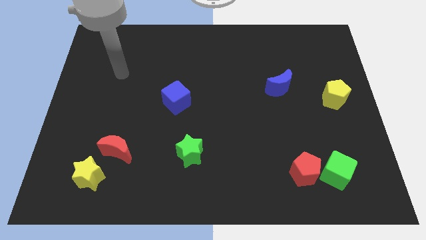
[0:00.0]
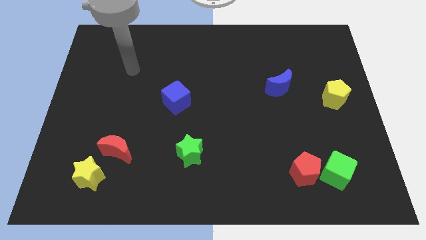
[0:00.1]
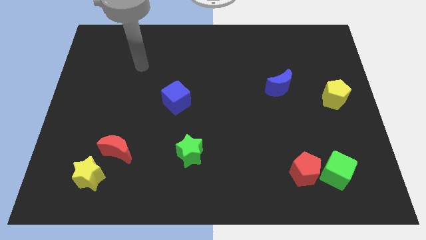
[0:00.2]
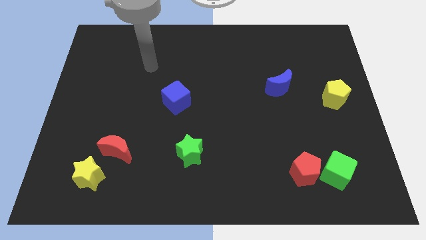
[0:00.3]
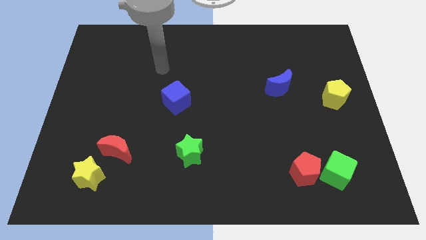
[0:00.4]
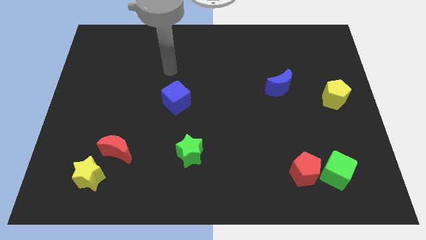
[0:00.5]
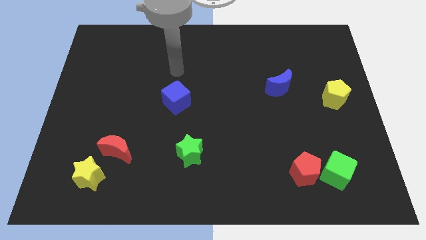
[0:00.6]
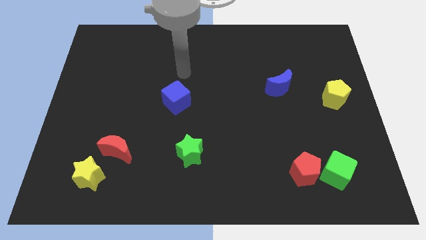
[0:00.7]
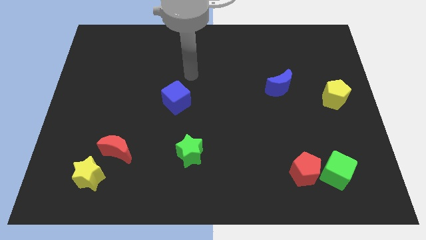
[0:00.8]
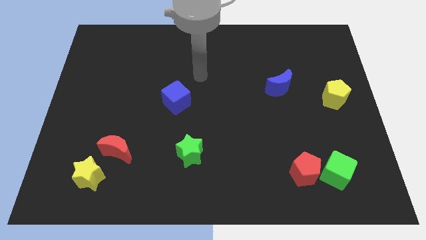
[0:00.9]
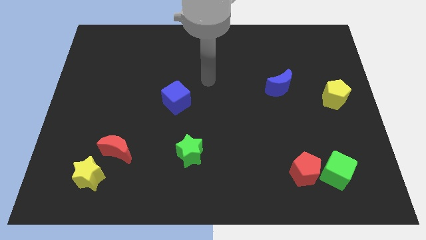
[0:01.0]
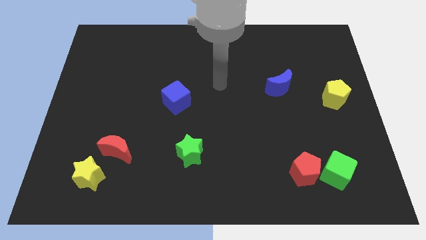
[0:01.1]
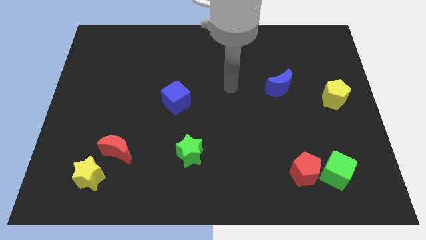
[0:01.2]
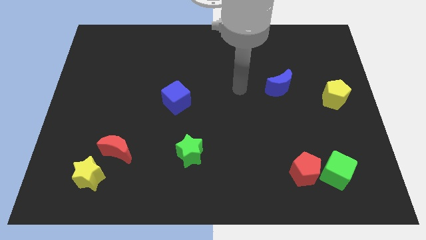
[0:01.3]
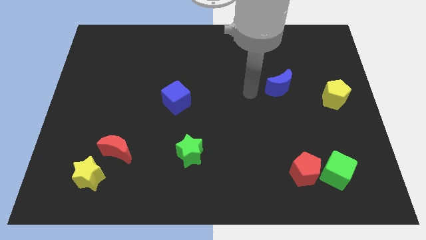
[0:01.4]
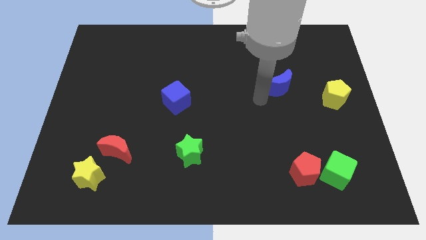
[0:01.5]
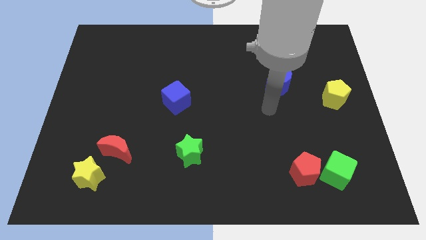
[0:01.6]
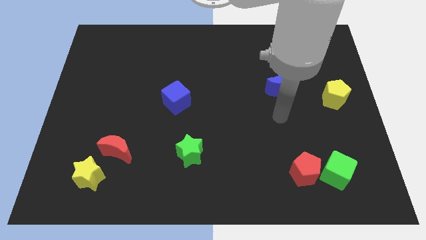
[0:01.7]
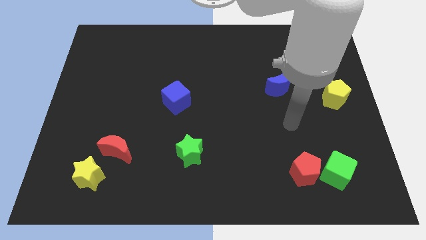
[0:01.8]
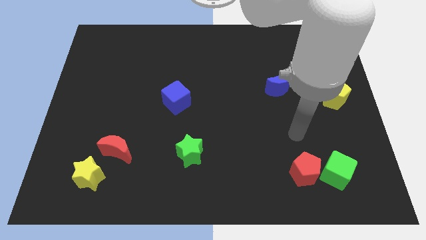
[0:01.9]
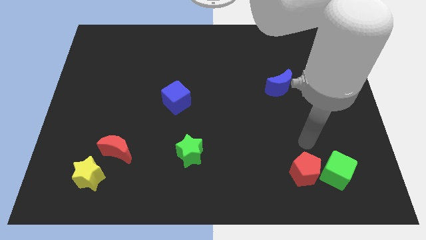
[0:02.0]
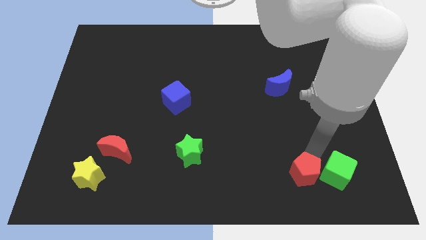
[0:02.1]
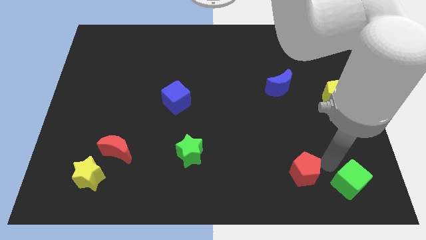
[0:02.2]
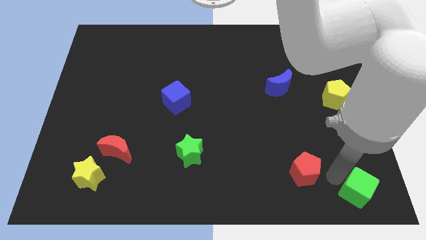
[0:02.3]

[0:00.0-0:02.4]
separate the red pentagon from the green cube

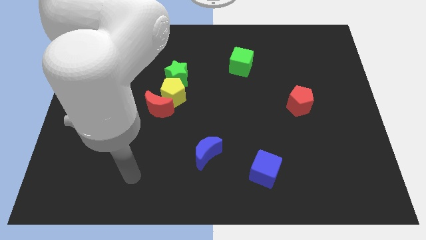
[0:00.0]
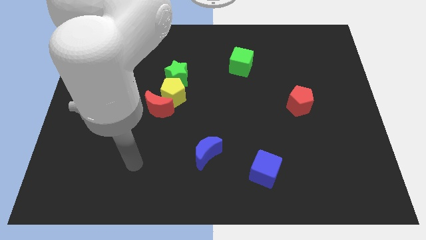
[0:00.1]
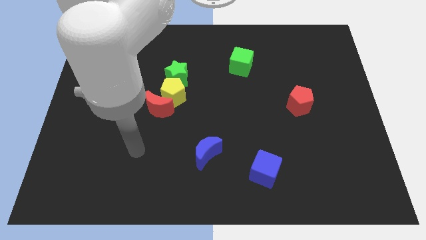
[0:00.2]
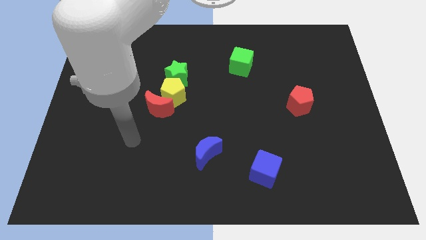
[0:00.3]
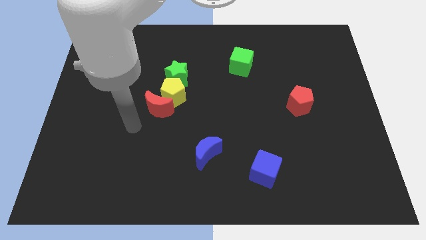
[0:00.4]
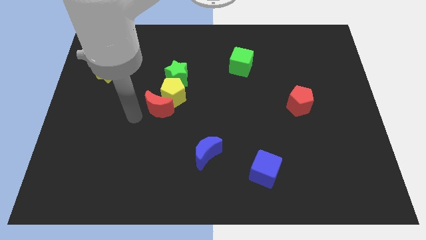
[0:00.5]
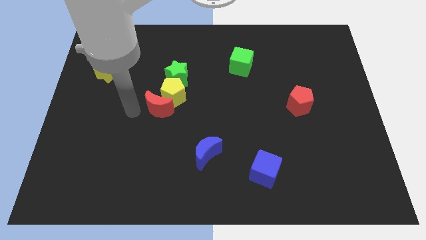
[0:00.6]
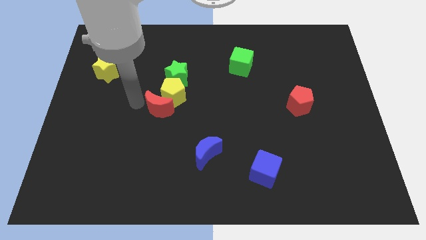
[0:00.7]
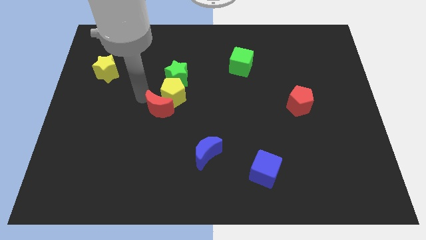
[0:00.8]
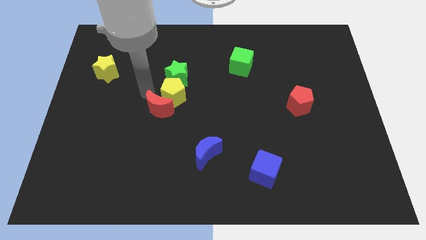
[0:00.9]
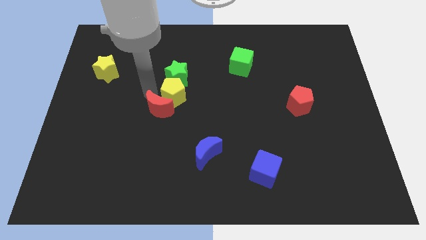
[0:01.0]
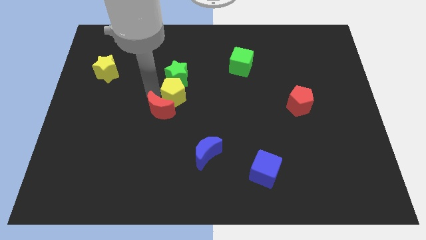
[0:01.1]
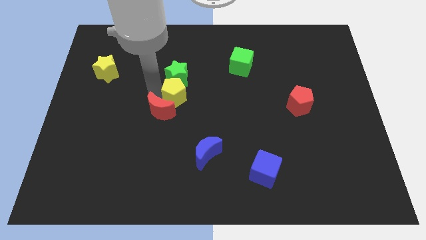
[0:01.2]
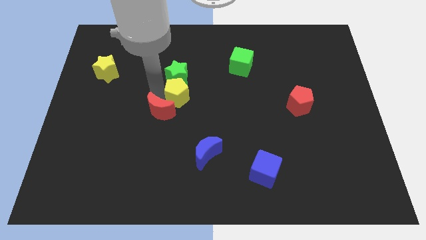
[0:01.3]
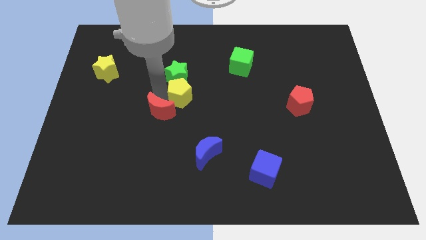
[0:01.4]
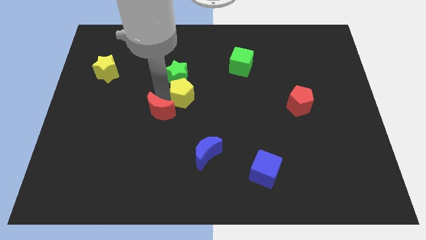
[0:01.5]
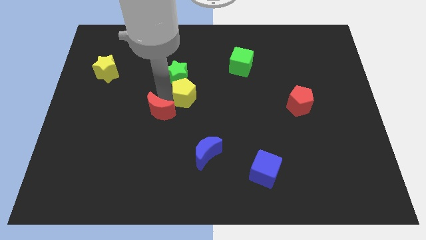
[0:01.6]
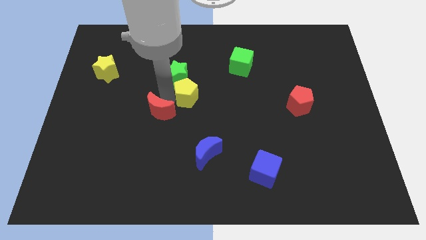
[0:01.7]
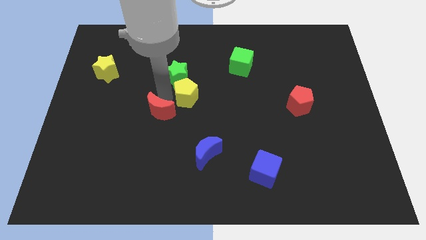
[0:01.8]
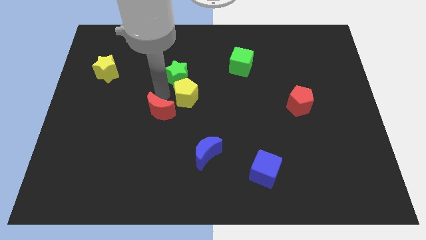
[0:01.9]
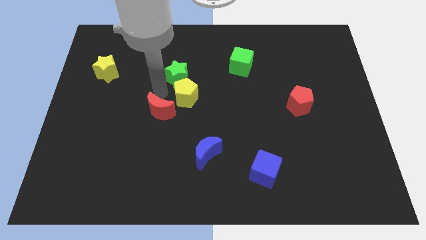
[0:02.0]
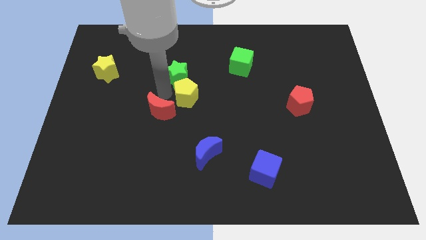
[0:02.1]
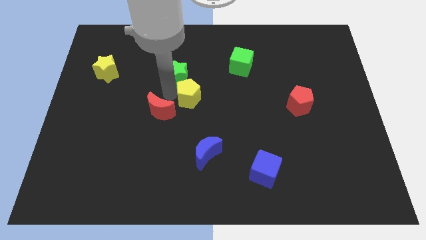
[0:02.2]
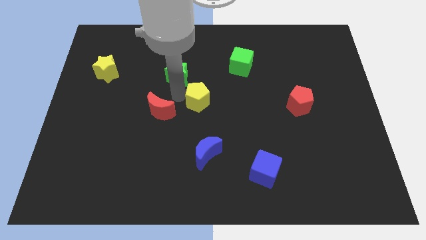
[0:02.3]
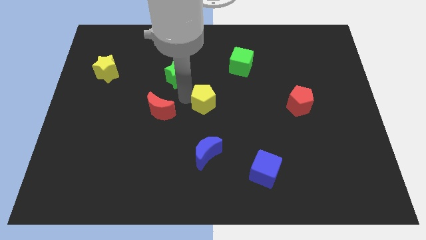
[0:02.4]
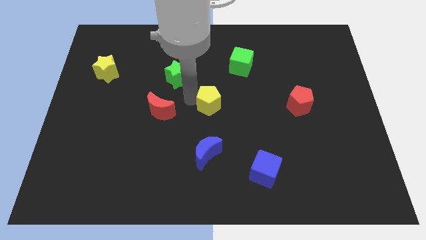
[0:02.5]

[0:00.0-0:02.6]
separate the yellow pentagon from the red moon and green star

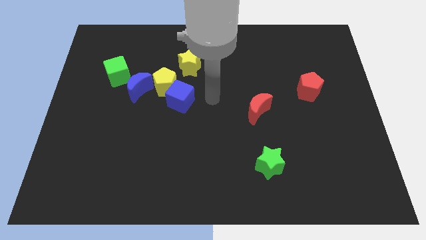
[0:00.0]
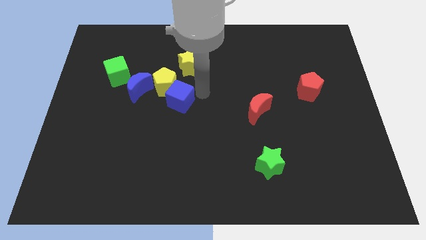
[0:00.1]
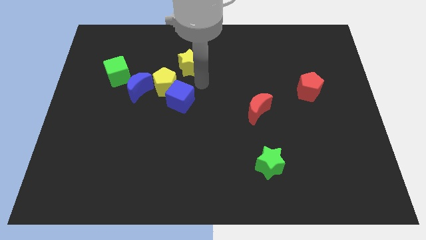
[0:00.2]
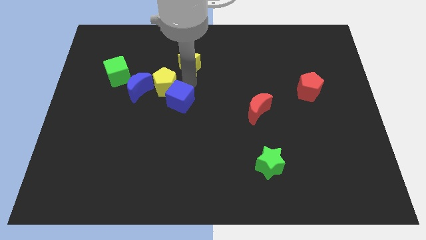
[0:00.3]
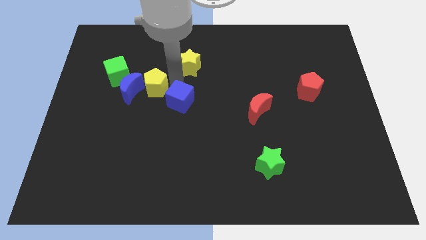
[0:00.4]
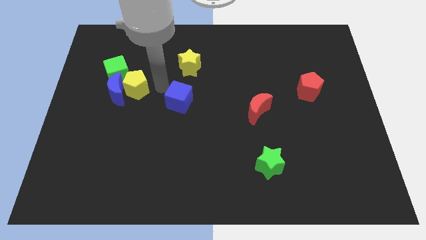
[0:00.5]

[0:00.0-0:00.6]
move the blue cube away from the yellow pentagon

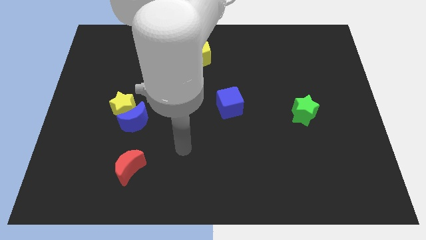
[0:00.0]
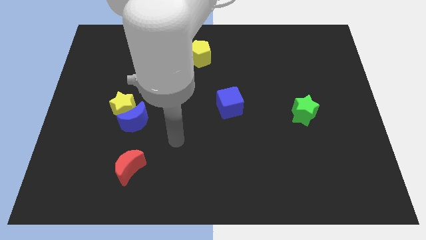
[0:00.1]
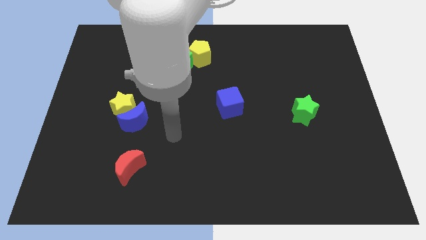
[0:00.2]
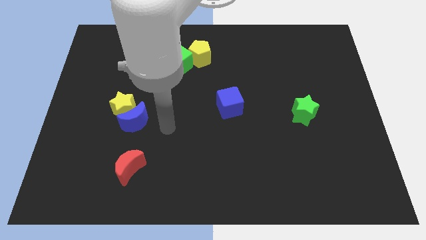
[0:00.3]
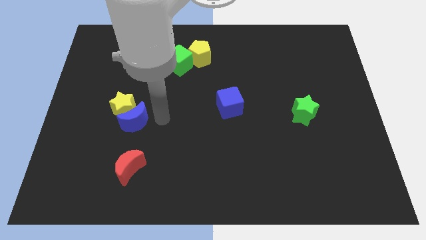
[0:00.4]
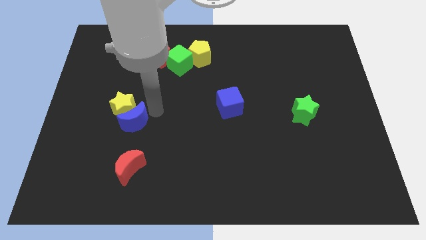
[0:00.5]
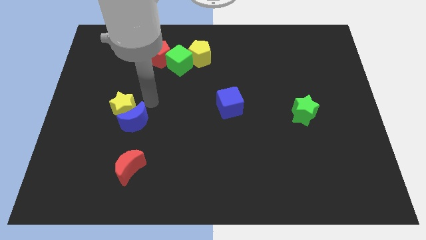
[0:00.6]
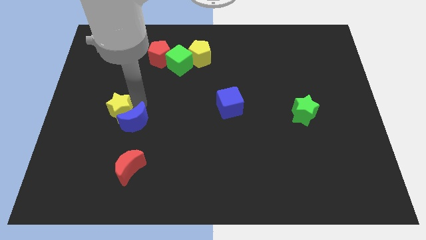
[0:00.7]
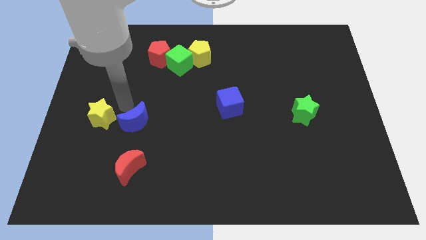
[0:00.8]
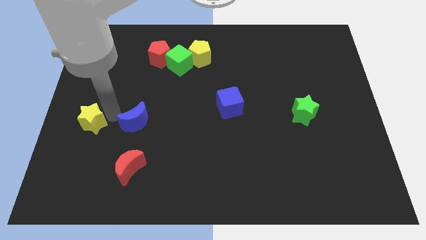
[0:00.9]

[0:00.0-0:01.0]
separate the blue moon from the yellow star

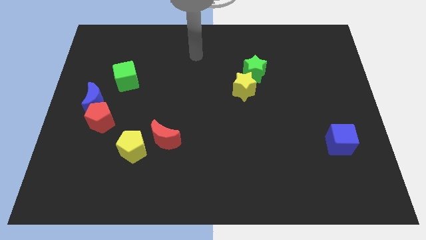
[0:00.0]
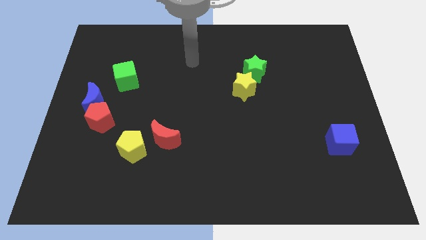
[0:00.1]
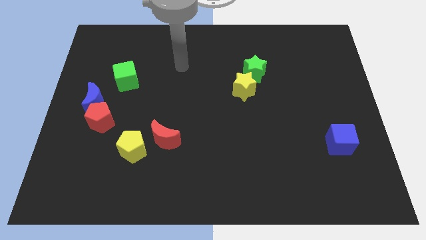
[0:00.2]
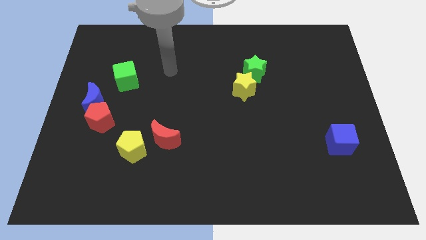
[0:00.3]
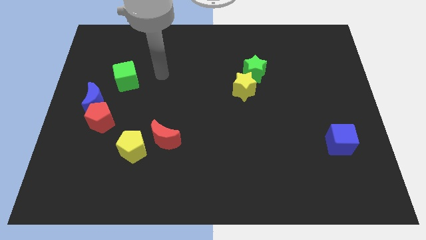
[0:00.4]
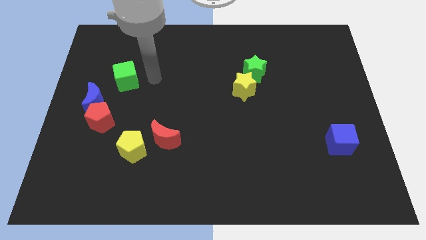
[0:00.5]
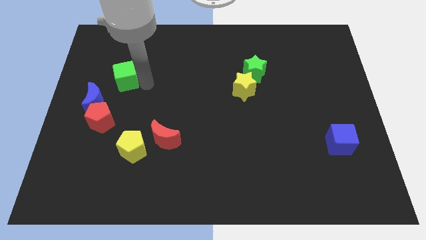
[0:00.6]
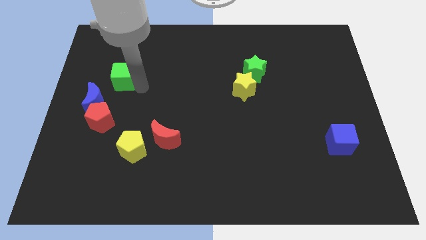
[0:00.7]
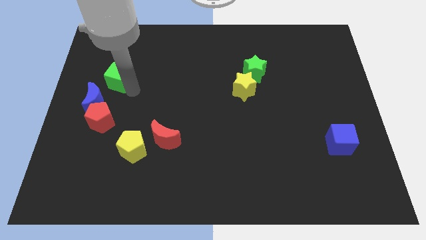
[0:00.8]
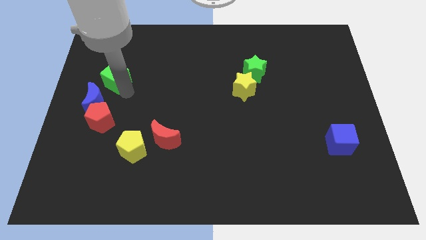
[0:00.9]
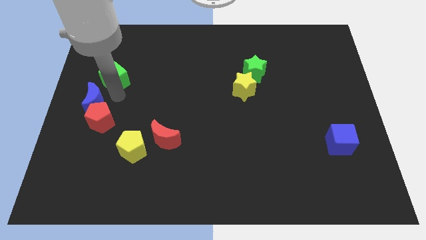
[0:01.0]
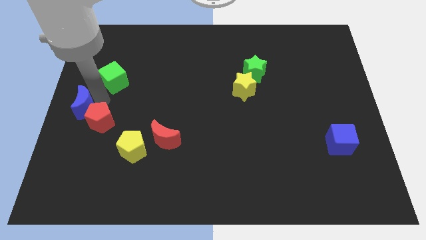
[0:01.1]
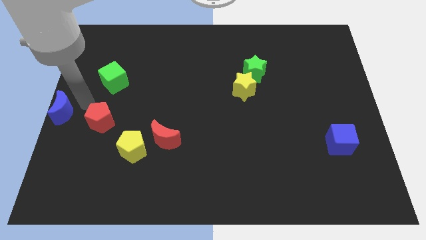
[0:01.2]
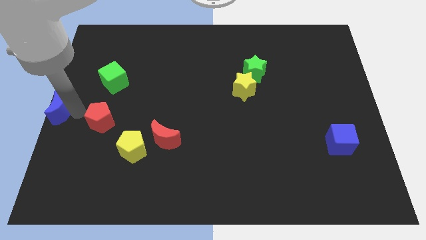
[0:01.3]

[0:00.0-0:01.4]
pull the red pentagon apart from the blue moon

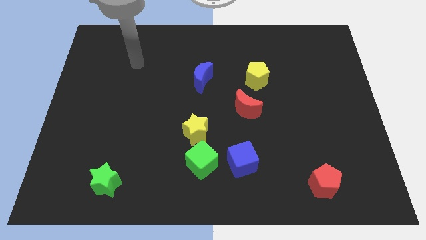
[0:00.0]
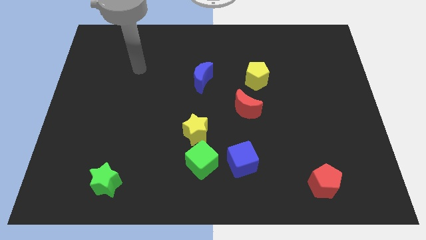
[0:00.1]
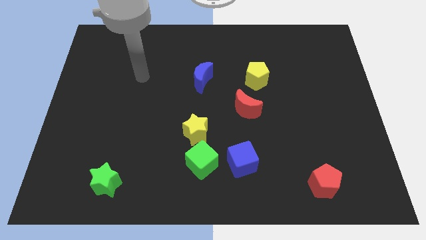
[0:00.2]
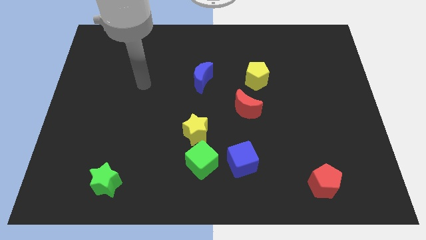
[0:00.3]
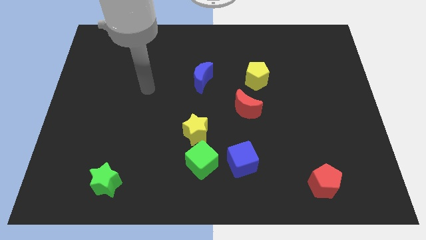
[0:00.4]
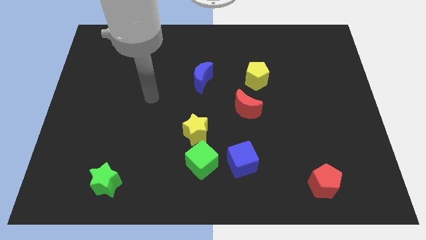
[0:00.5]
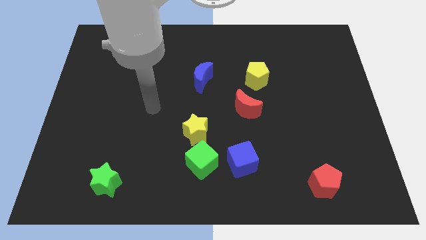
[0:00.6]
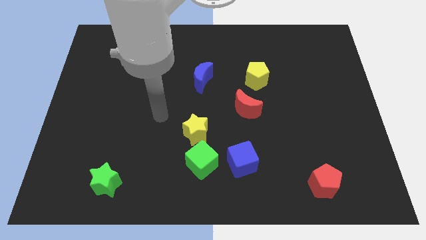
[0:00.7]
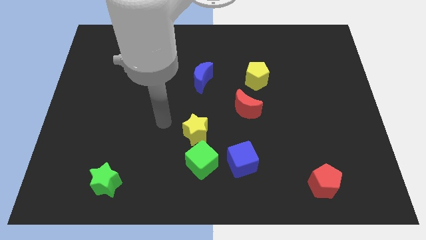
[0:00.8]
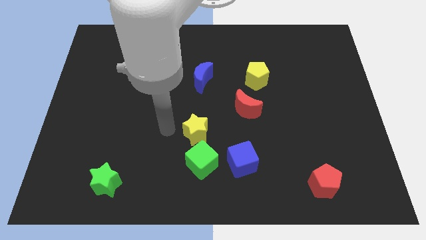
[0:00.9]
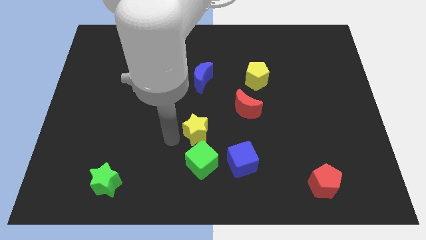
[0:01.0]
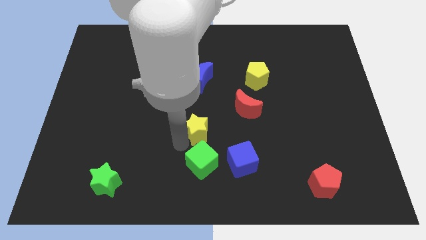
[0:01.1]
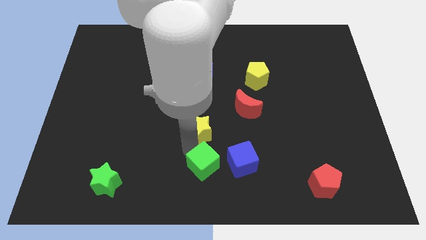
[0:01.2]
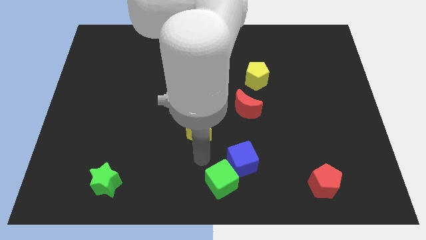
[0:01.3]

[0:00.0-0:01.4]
separate the yellow star from the green cube
